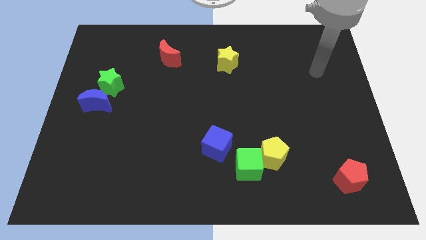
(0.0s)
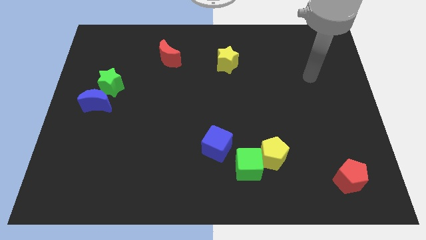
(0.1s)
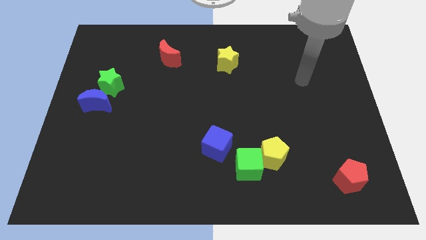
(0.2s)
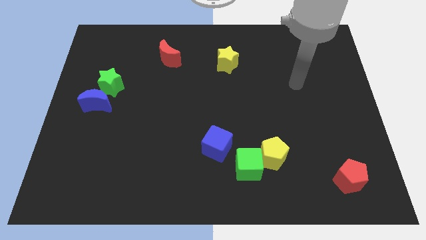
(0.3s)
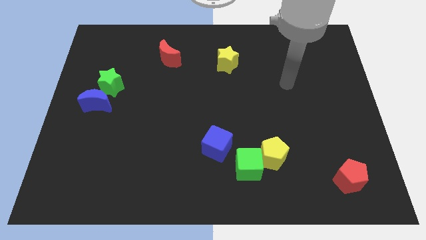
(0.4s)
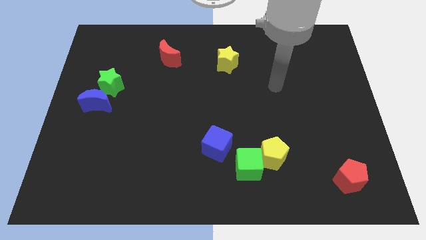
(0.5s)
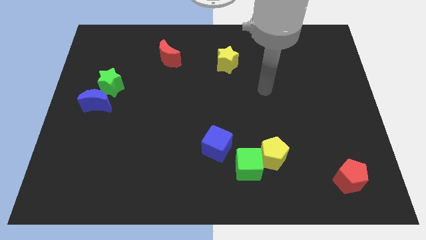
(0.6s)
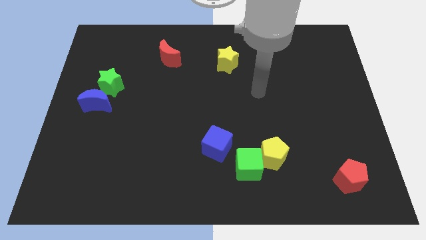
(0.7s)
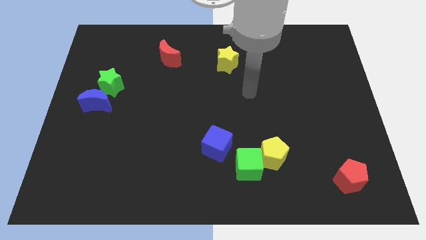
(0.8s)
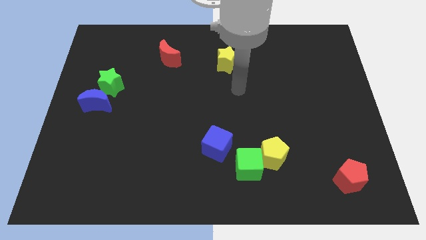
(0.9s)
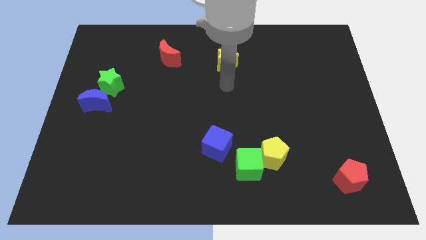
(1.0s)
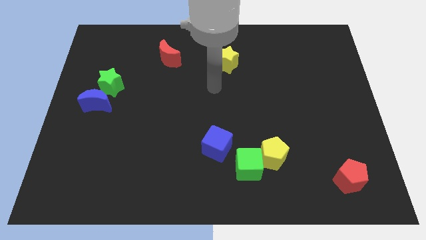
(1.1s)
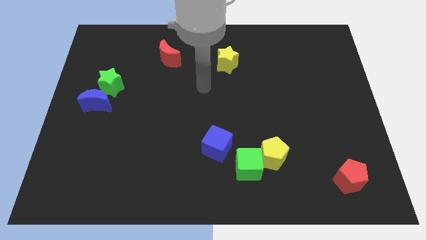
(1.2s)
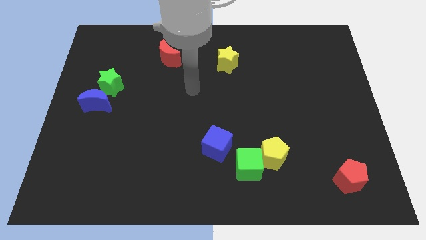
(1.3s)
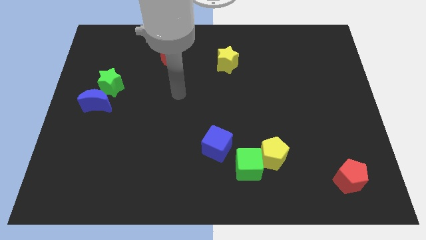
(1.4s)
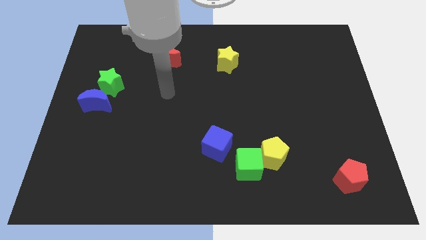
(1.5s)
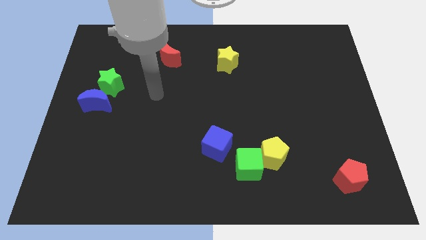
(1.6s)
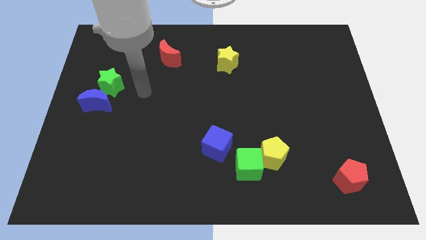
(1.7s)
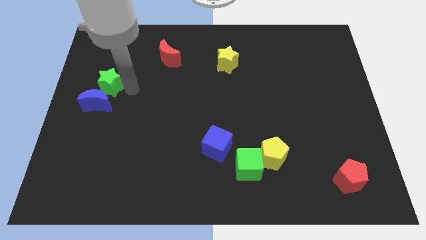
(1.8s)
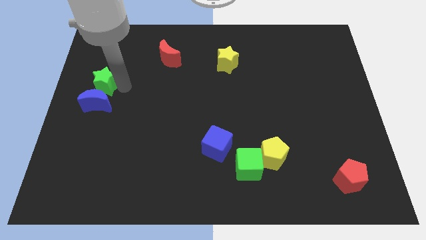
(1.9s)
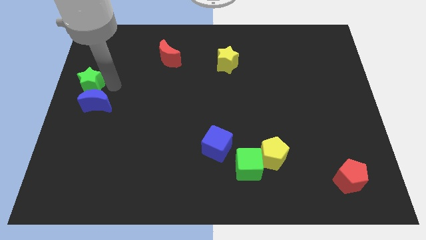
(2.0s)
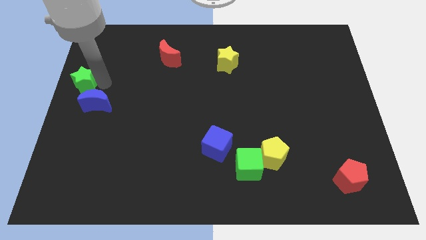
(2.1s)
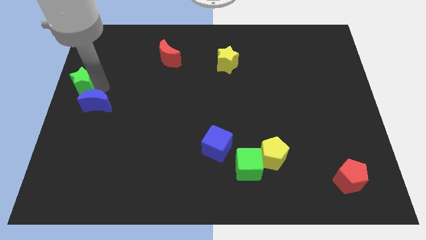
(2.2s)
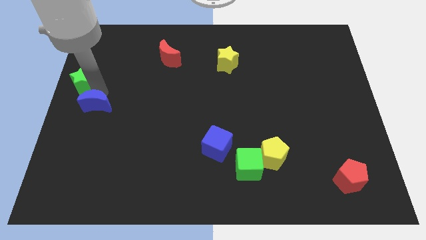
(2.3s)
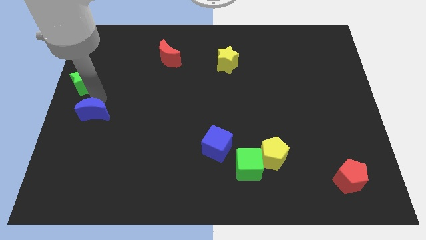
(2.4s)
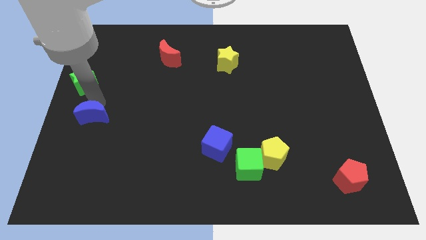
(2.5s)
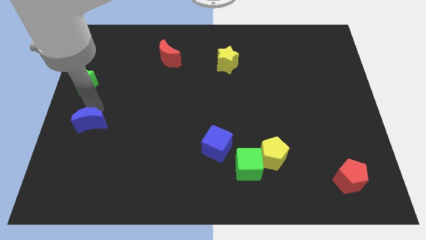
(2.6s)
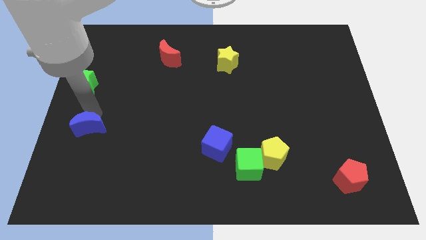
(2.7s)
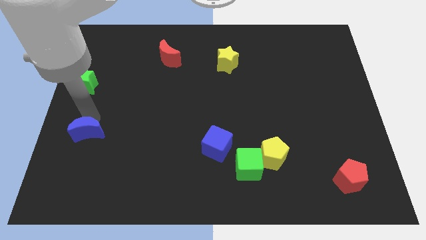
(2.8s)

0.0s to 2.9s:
slightly slide the blue moon down

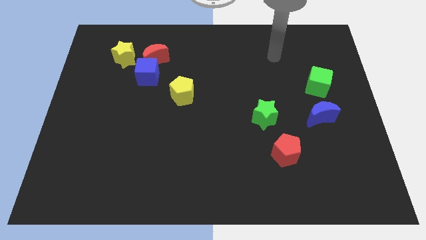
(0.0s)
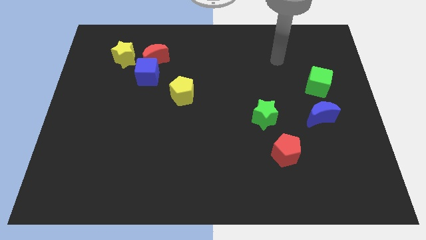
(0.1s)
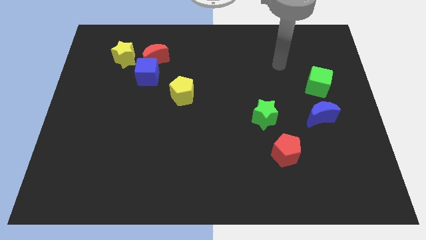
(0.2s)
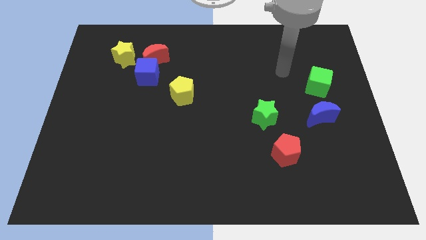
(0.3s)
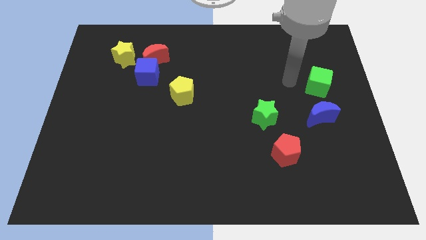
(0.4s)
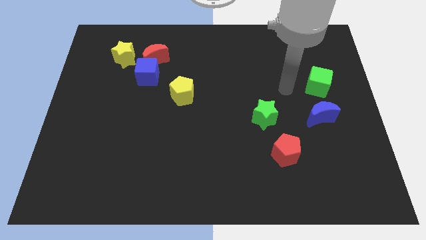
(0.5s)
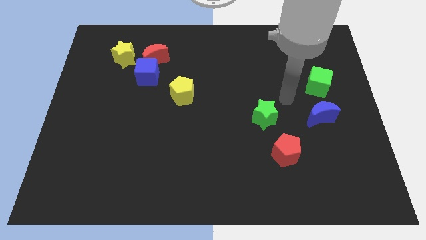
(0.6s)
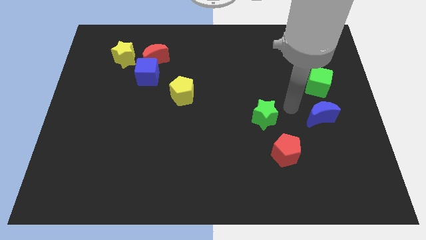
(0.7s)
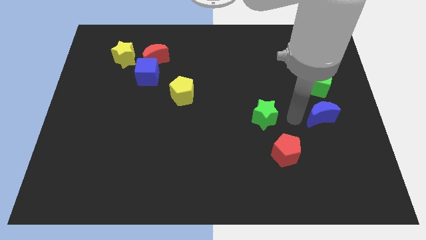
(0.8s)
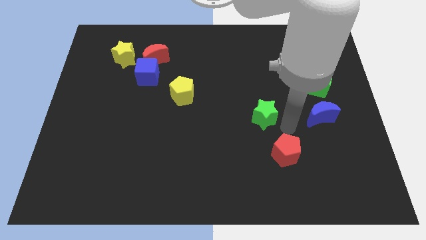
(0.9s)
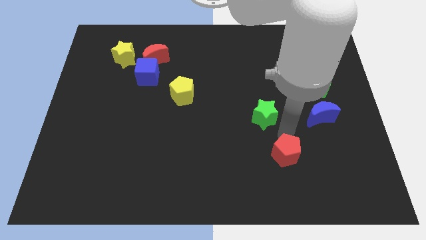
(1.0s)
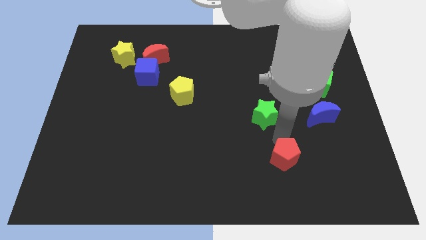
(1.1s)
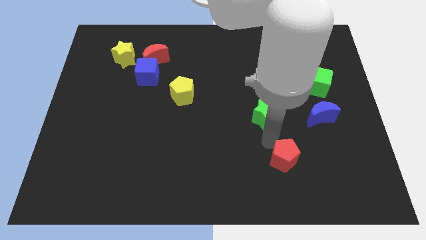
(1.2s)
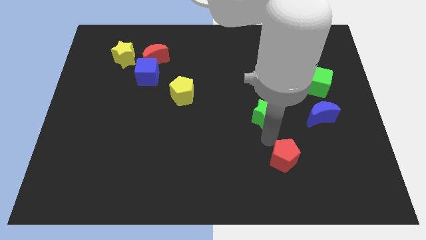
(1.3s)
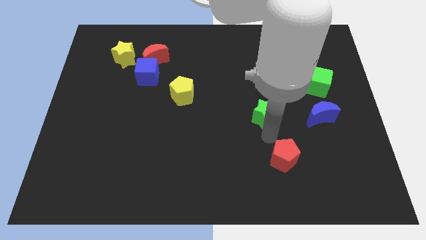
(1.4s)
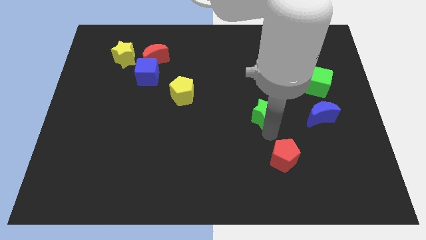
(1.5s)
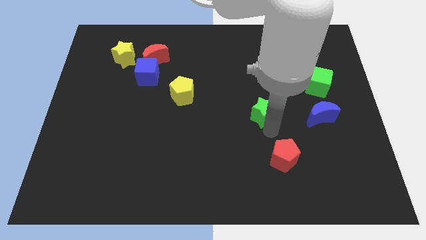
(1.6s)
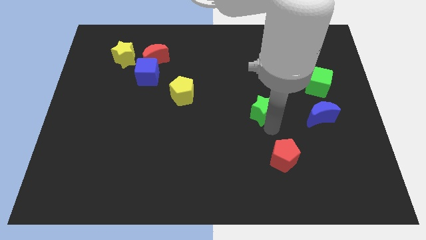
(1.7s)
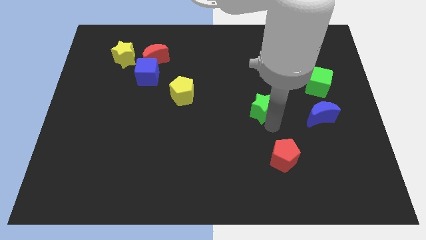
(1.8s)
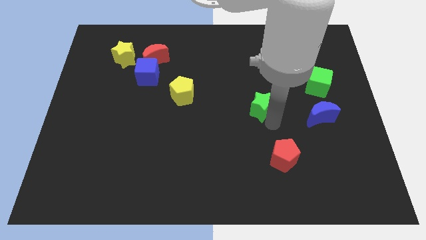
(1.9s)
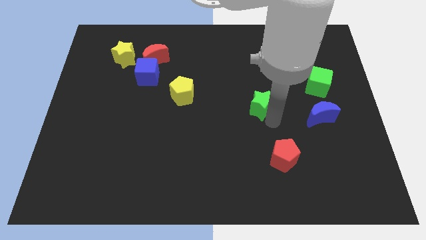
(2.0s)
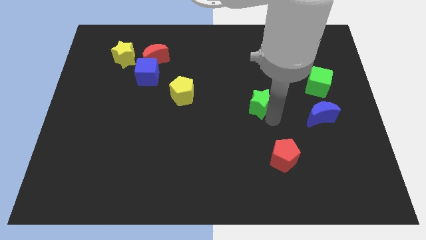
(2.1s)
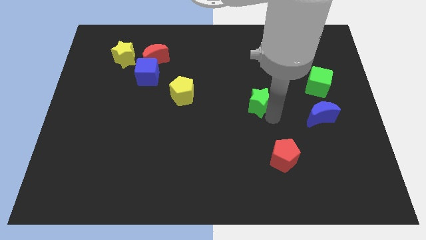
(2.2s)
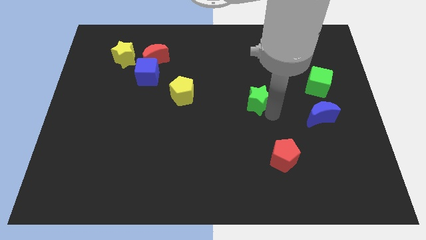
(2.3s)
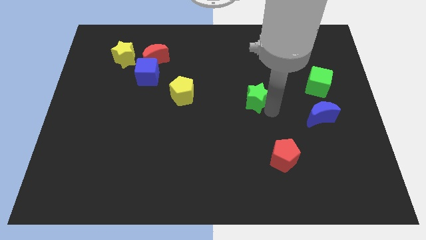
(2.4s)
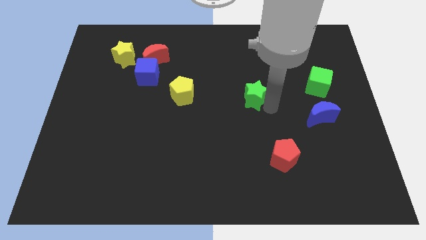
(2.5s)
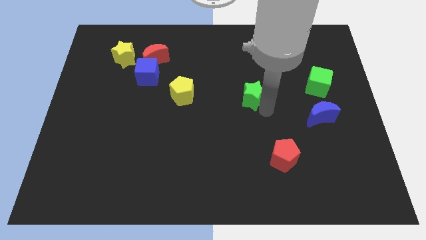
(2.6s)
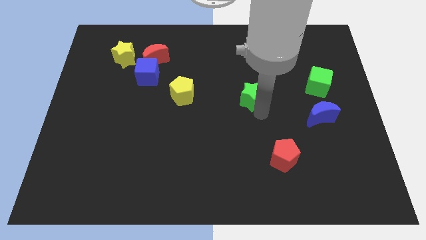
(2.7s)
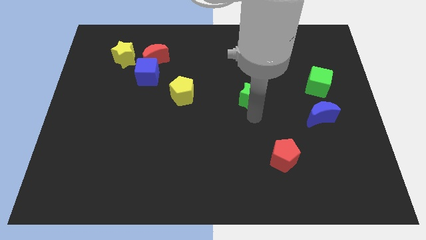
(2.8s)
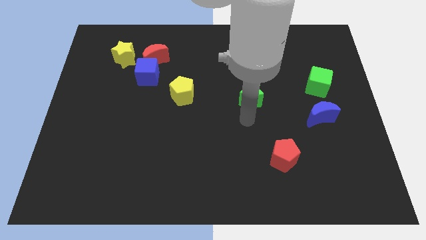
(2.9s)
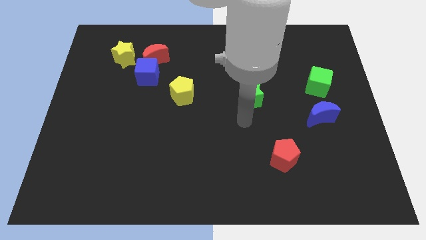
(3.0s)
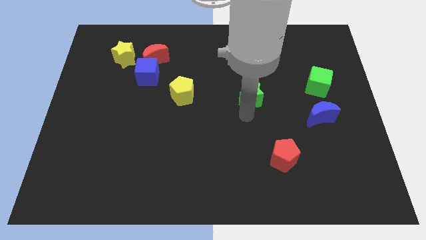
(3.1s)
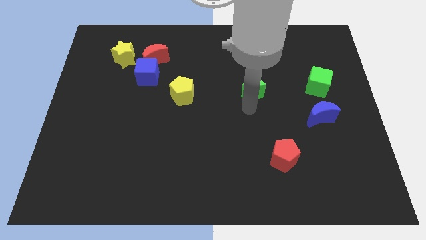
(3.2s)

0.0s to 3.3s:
slide the green star somewhat up

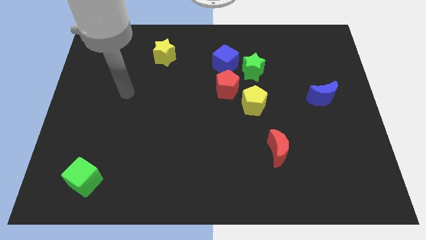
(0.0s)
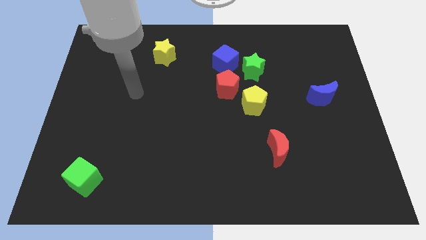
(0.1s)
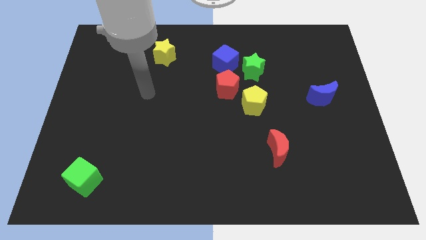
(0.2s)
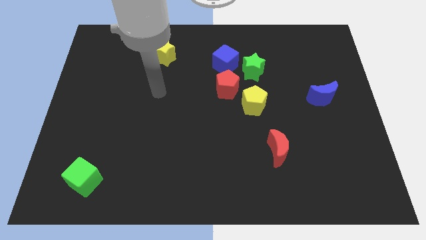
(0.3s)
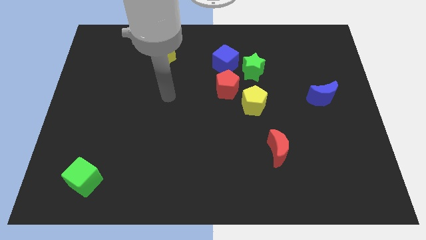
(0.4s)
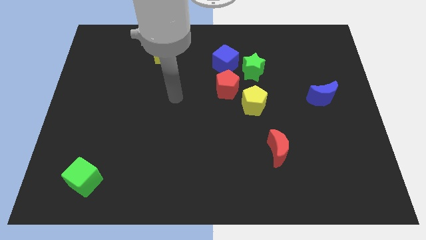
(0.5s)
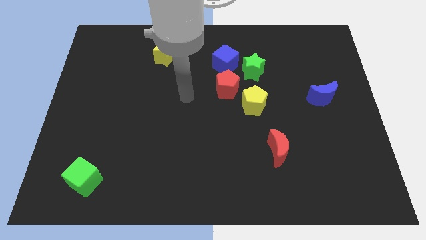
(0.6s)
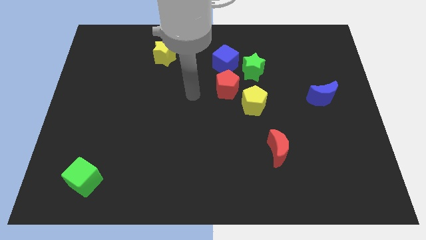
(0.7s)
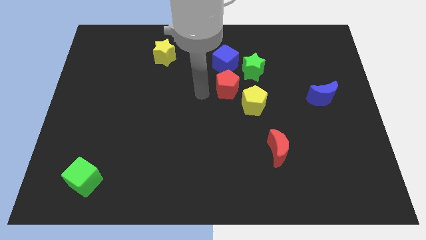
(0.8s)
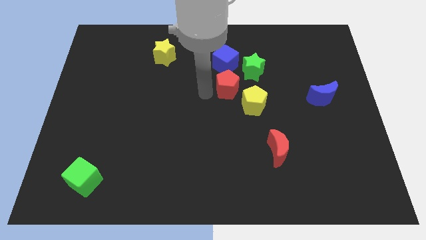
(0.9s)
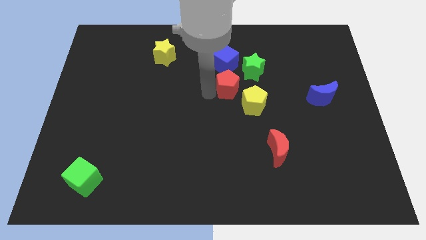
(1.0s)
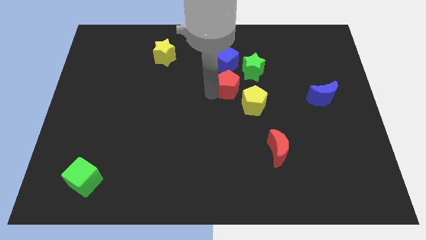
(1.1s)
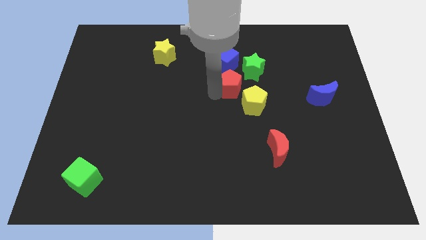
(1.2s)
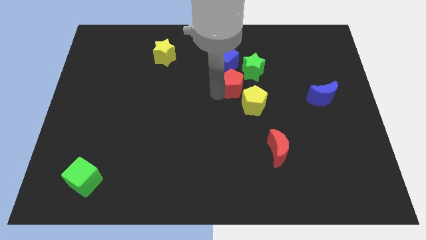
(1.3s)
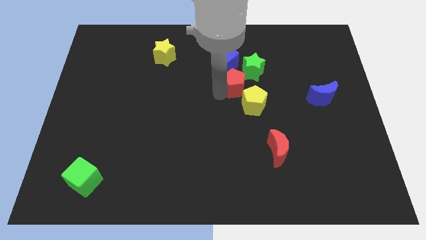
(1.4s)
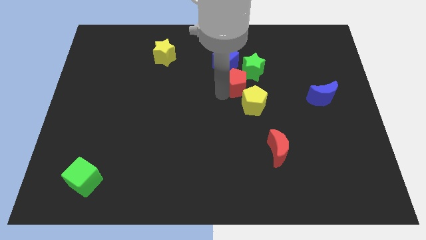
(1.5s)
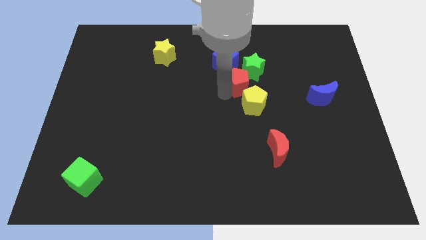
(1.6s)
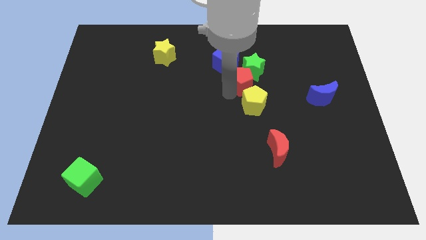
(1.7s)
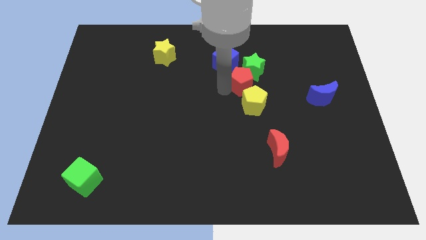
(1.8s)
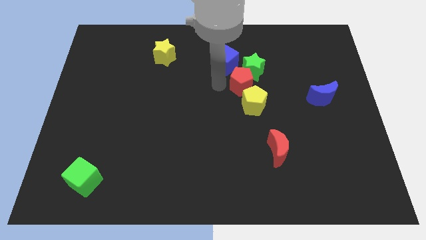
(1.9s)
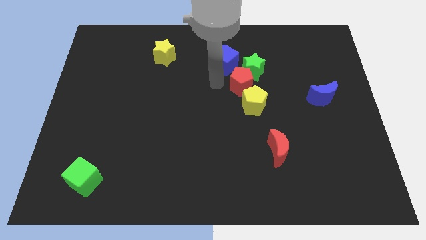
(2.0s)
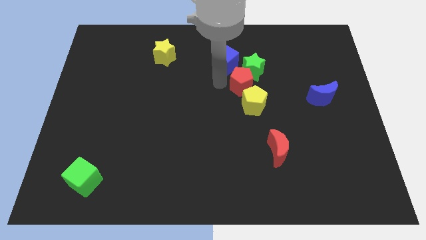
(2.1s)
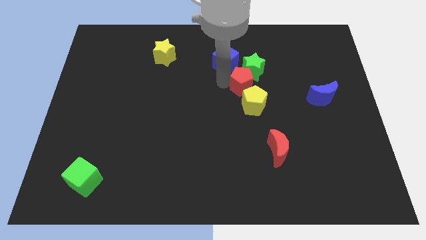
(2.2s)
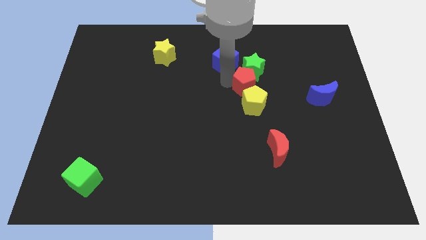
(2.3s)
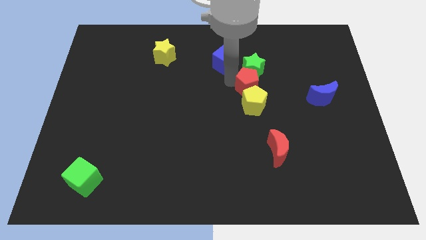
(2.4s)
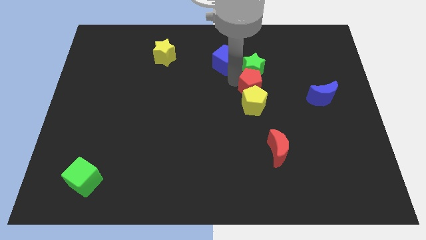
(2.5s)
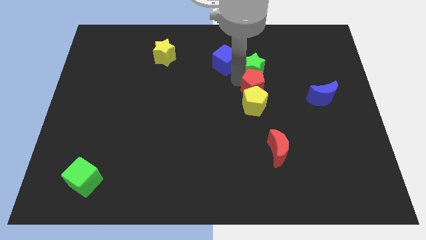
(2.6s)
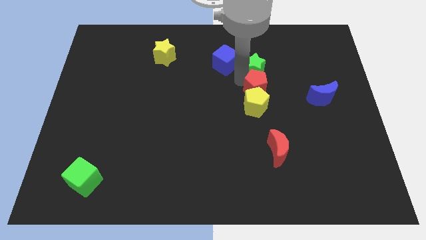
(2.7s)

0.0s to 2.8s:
slightly slide the red pentagon right
